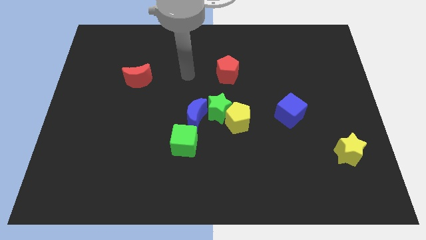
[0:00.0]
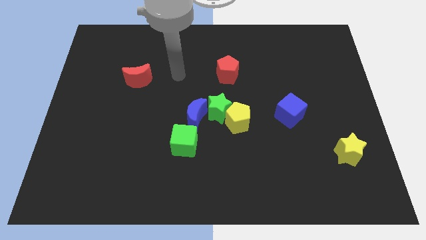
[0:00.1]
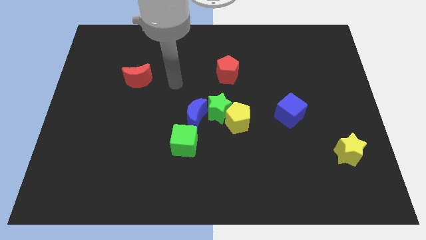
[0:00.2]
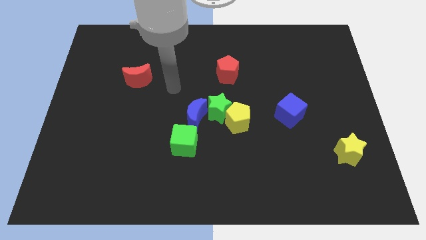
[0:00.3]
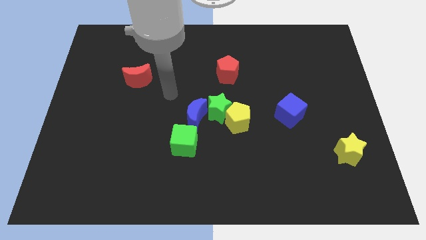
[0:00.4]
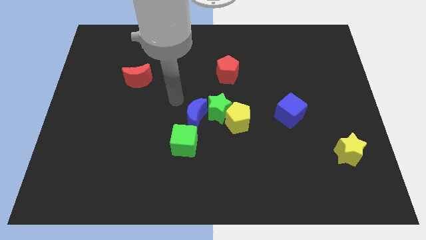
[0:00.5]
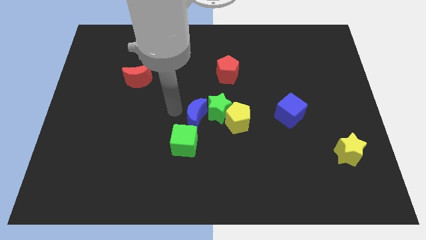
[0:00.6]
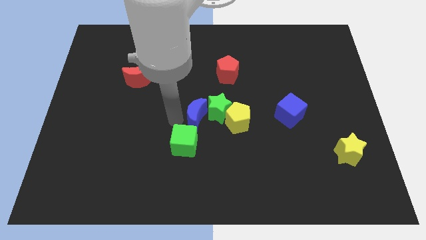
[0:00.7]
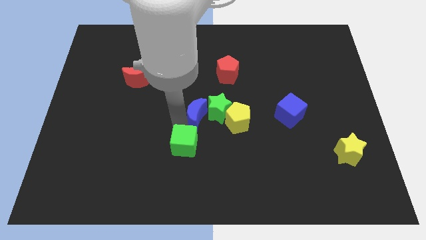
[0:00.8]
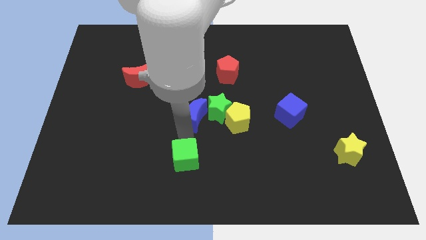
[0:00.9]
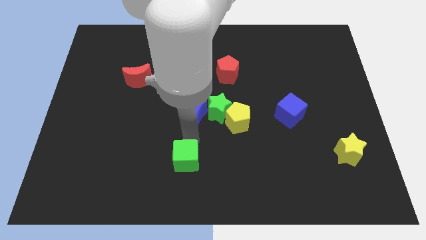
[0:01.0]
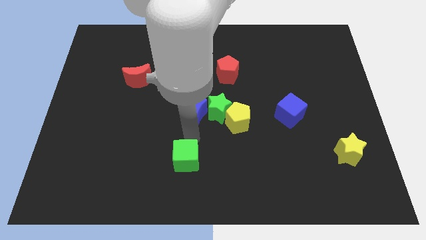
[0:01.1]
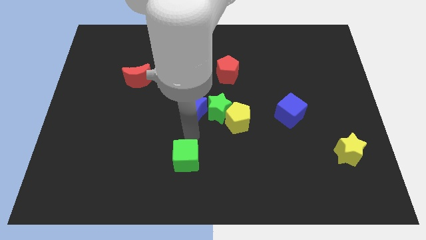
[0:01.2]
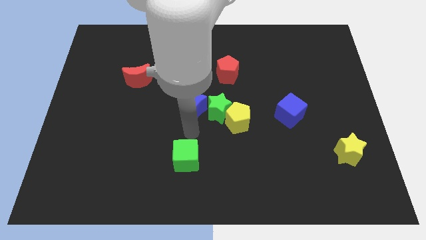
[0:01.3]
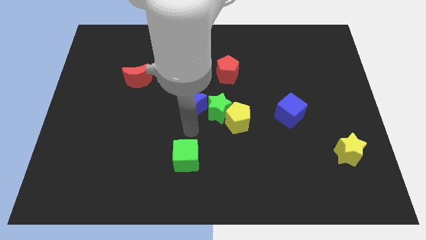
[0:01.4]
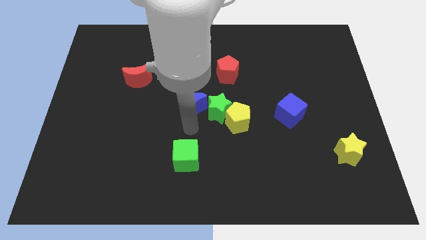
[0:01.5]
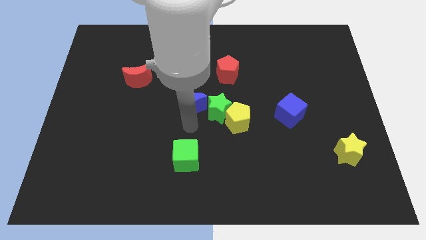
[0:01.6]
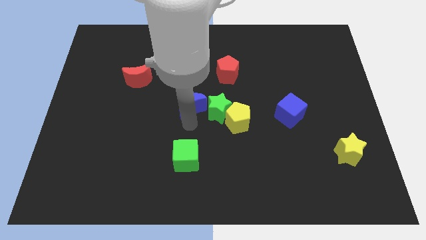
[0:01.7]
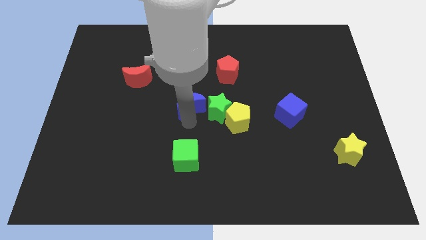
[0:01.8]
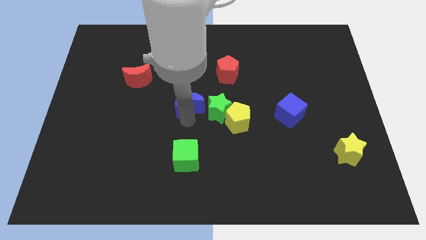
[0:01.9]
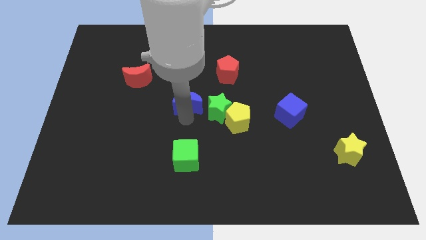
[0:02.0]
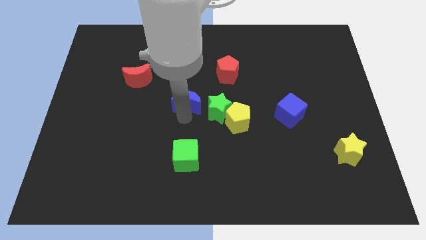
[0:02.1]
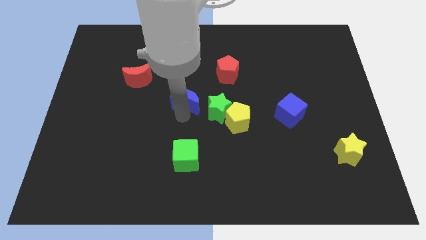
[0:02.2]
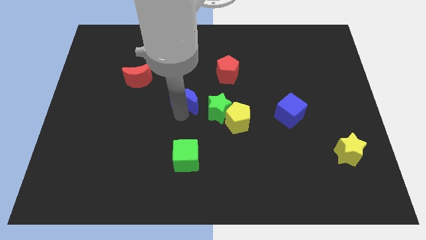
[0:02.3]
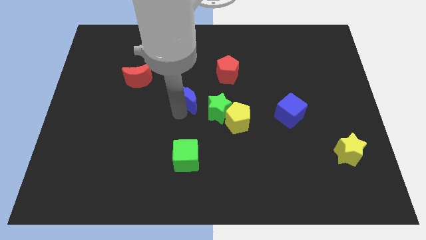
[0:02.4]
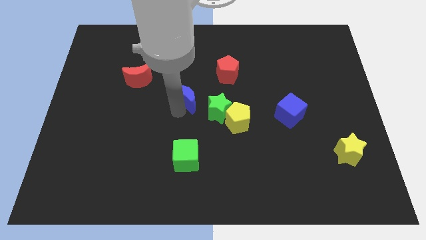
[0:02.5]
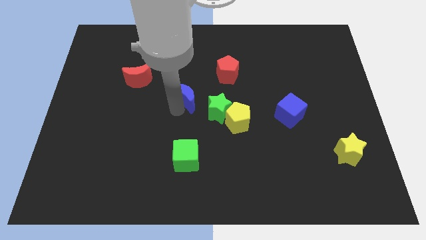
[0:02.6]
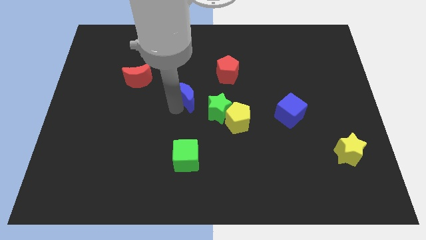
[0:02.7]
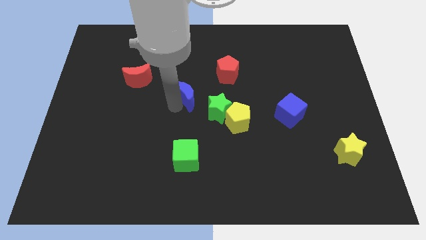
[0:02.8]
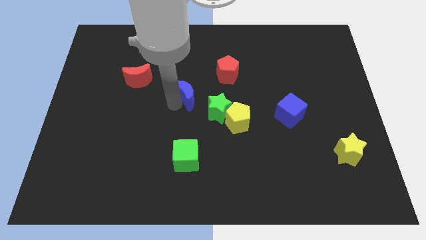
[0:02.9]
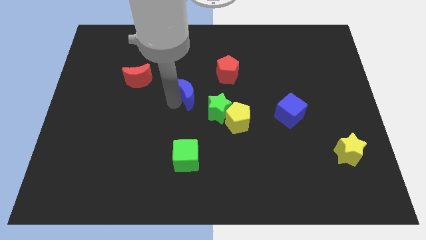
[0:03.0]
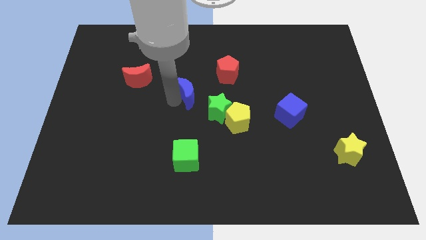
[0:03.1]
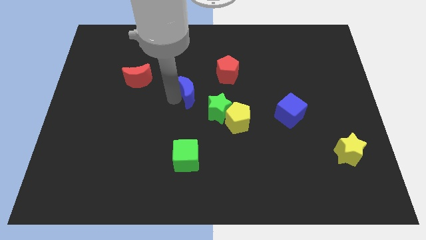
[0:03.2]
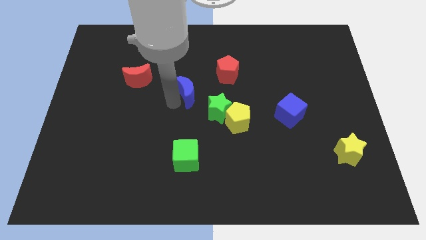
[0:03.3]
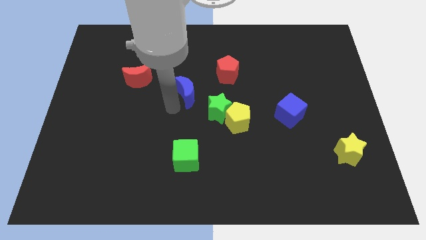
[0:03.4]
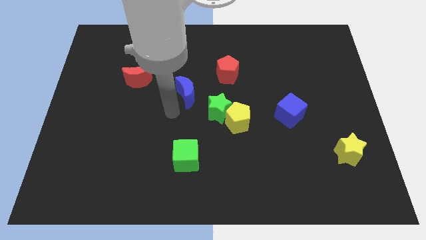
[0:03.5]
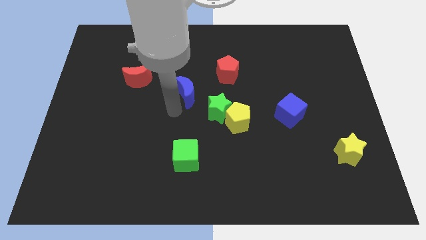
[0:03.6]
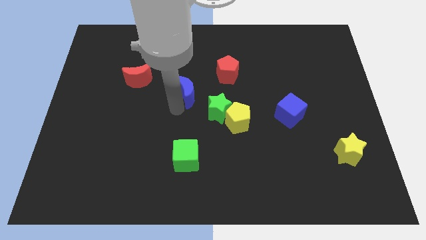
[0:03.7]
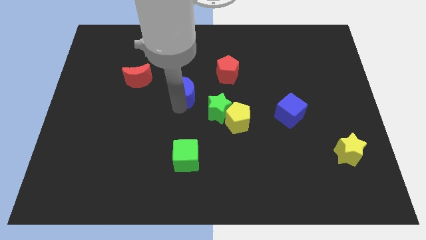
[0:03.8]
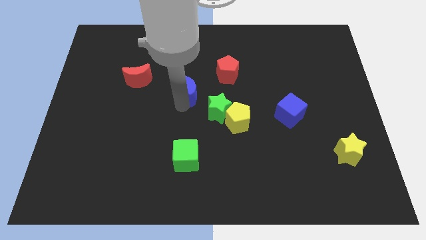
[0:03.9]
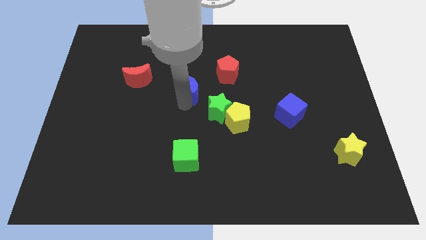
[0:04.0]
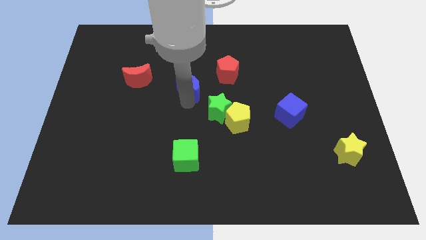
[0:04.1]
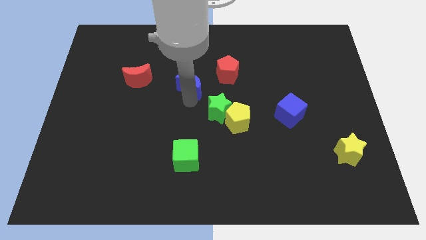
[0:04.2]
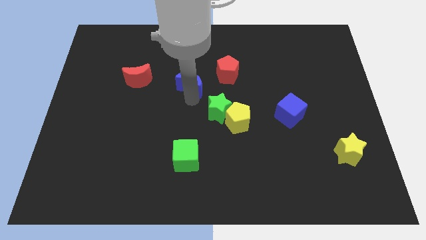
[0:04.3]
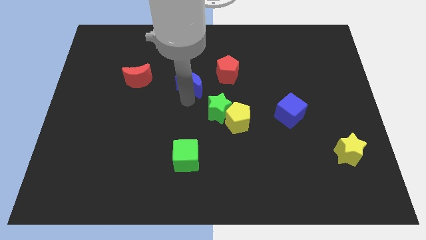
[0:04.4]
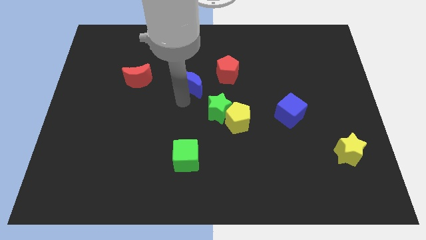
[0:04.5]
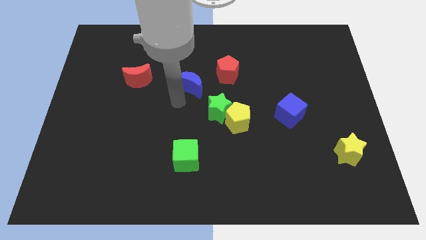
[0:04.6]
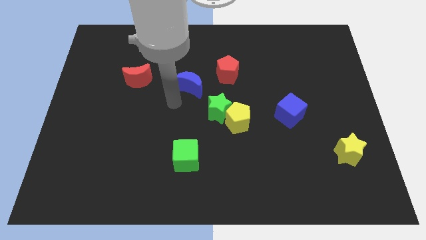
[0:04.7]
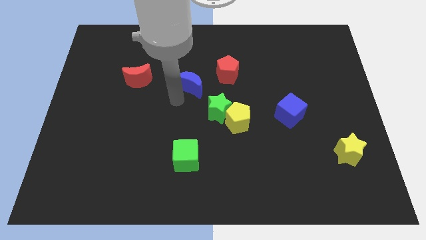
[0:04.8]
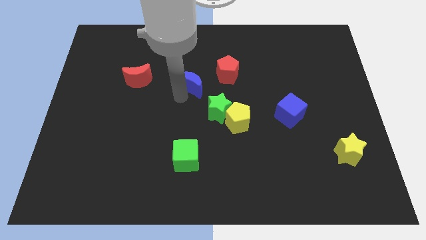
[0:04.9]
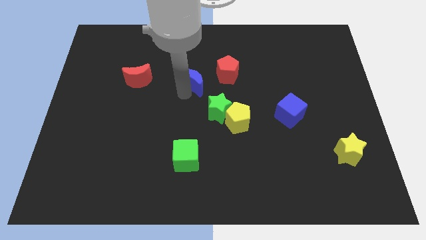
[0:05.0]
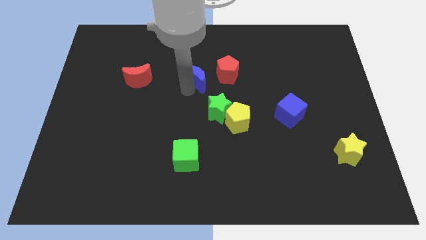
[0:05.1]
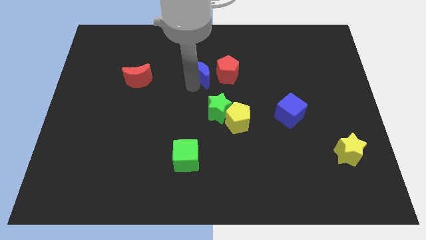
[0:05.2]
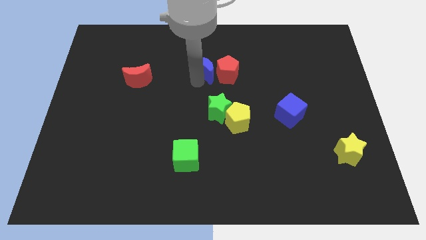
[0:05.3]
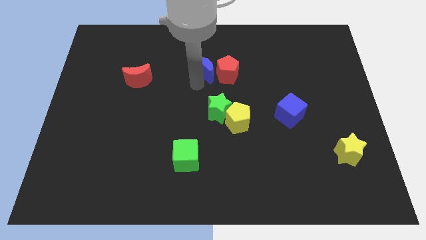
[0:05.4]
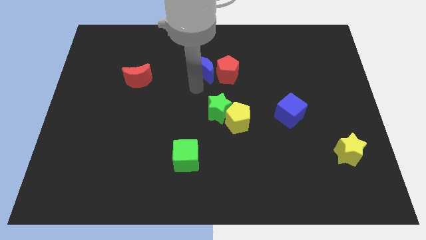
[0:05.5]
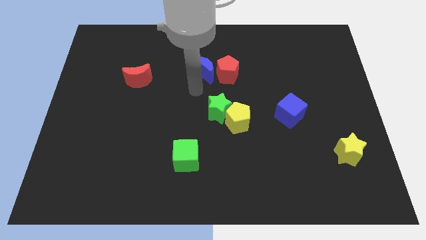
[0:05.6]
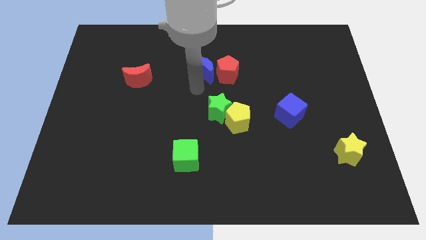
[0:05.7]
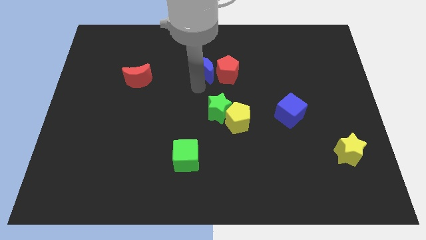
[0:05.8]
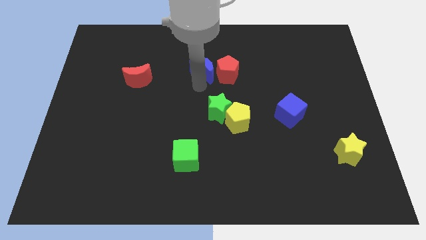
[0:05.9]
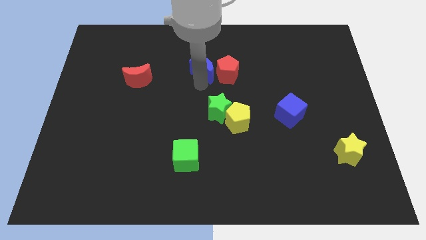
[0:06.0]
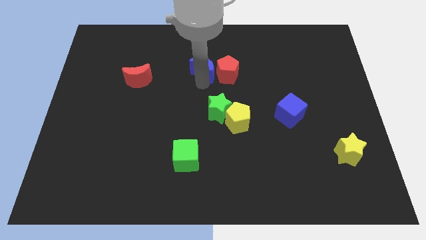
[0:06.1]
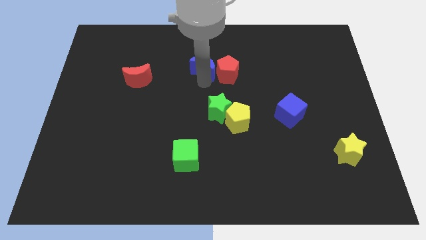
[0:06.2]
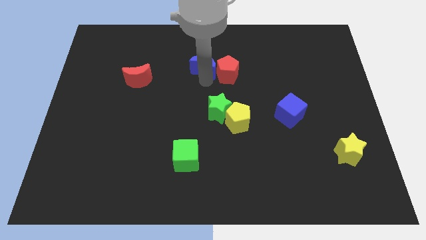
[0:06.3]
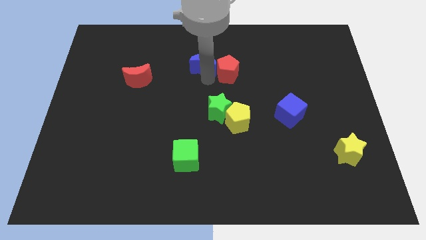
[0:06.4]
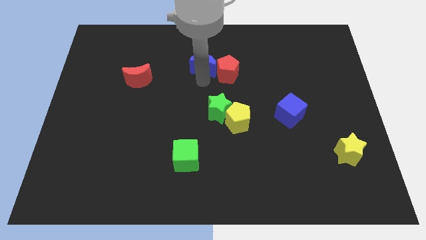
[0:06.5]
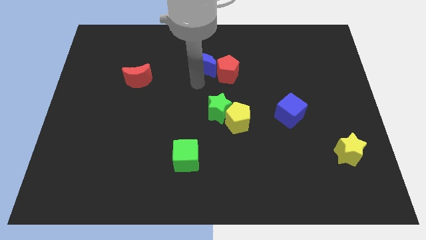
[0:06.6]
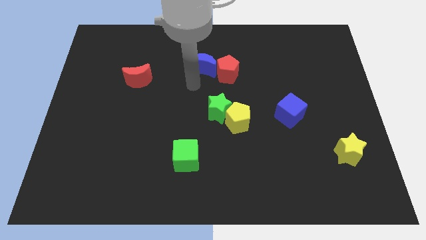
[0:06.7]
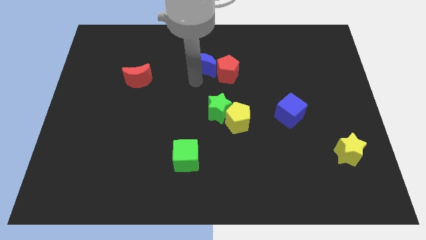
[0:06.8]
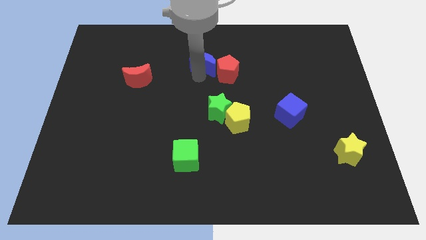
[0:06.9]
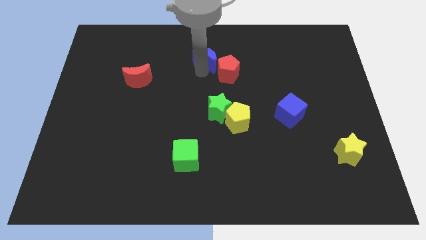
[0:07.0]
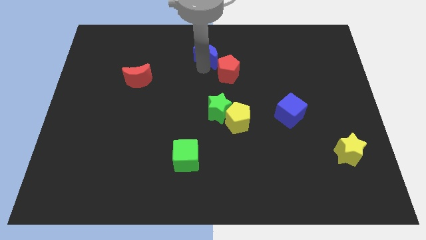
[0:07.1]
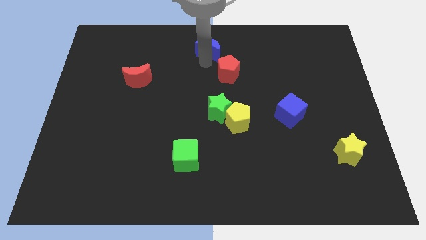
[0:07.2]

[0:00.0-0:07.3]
push the blue moon to the towards your base
